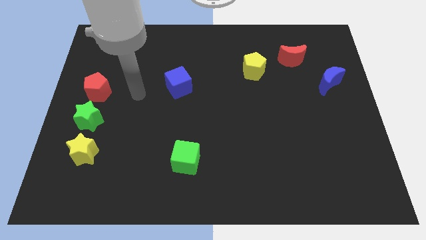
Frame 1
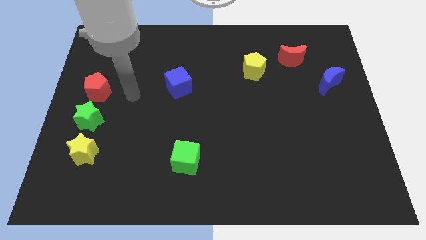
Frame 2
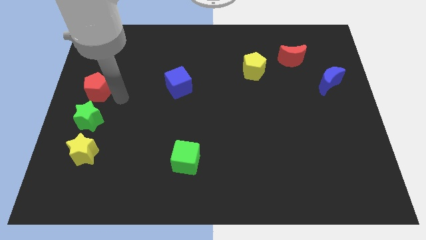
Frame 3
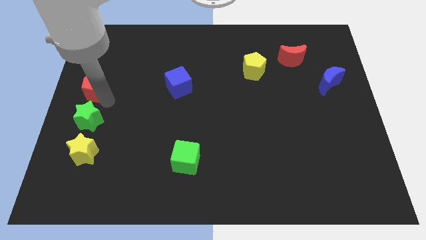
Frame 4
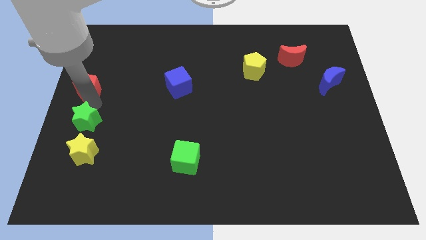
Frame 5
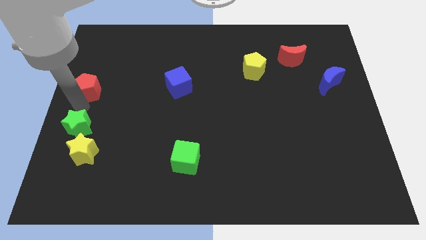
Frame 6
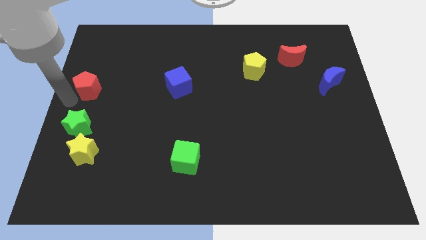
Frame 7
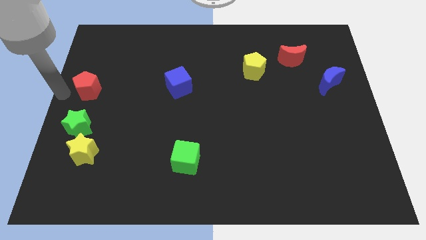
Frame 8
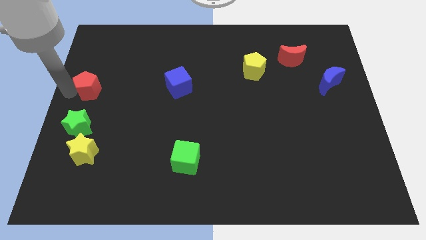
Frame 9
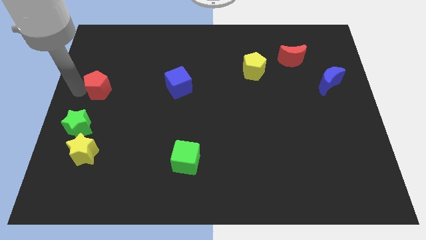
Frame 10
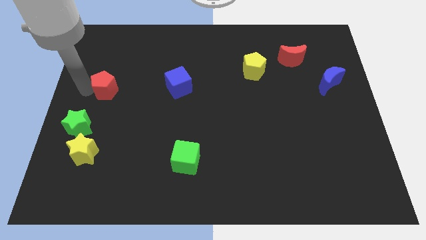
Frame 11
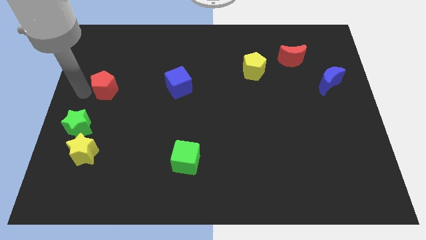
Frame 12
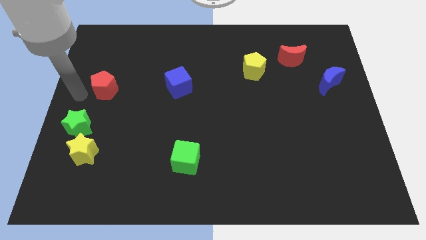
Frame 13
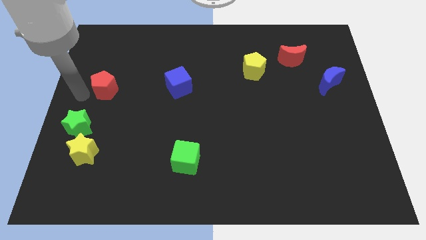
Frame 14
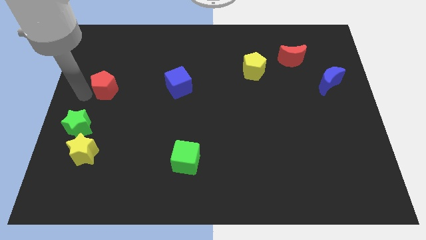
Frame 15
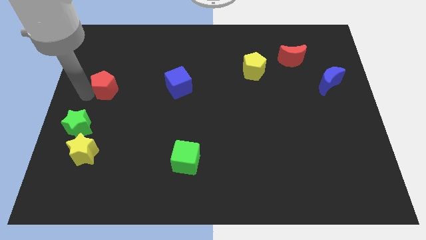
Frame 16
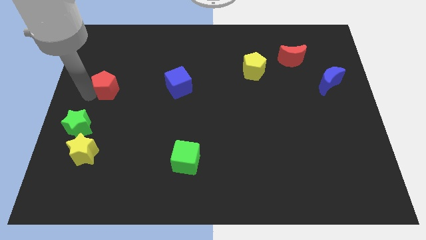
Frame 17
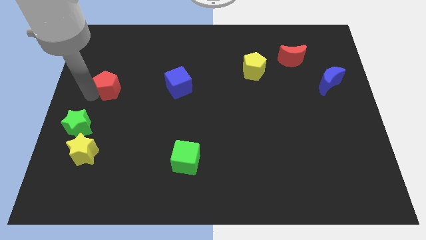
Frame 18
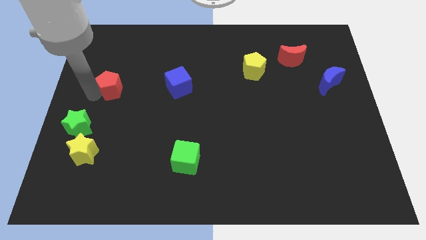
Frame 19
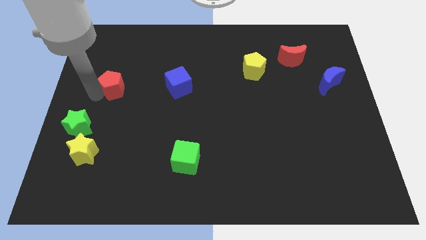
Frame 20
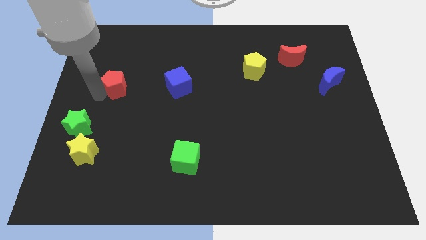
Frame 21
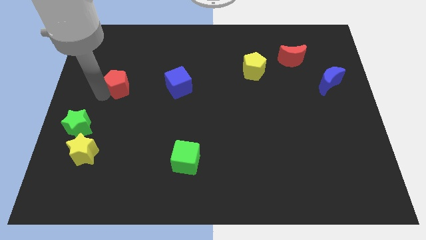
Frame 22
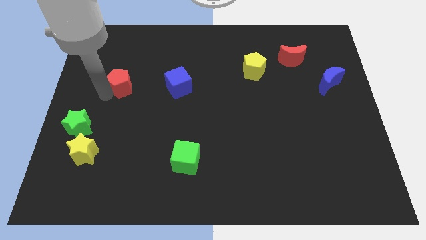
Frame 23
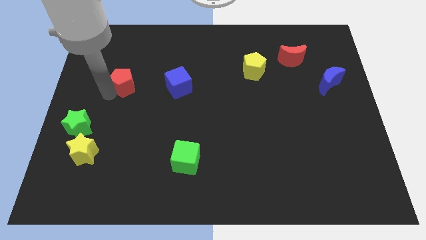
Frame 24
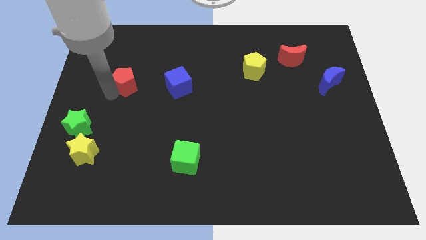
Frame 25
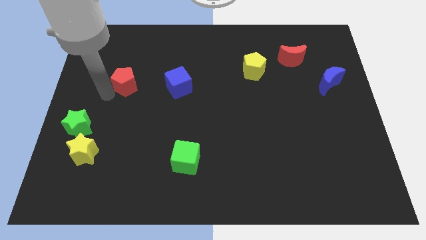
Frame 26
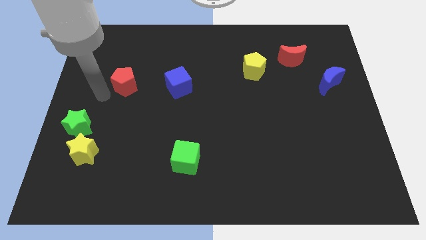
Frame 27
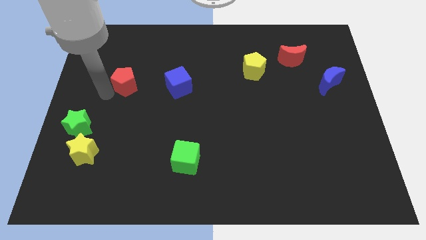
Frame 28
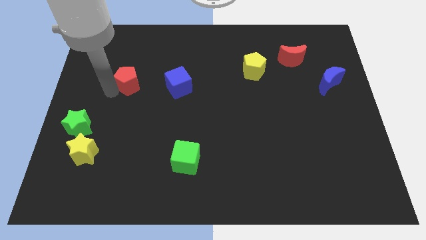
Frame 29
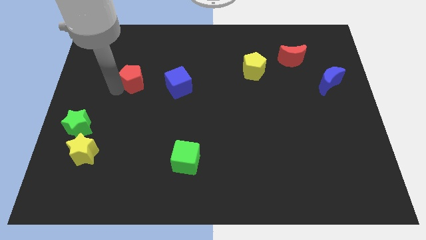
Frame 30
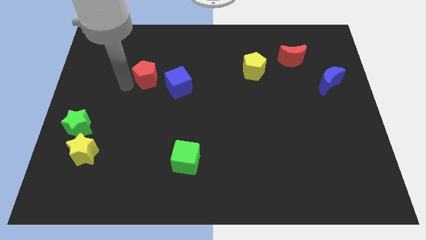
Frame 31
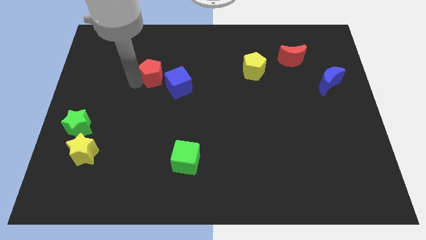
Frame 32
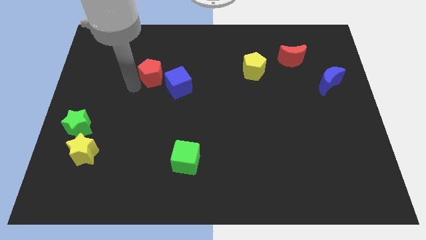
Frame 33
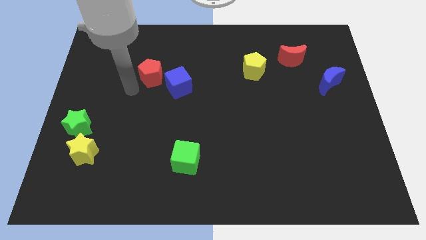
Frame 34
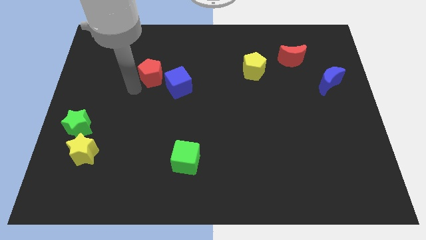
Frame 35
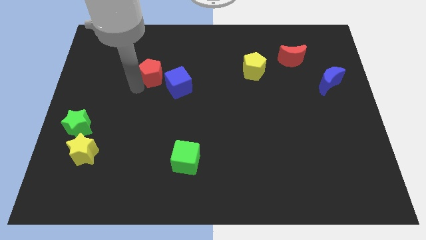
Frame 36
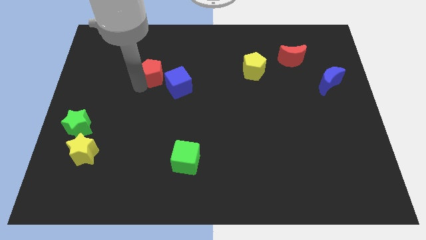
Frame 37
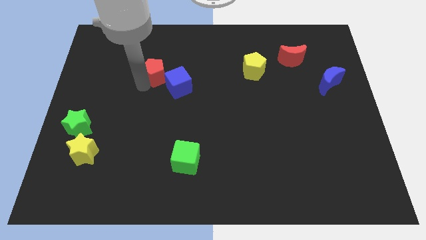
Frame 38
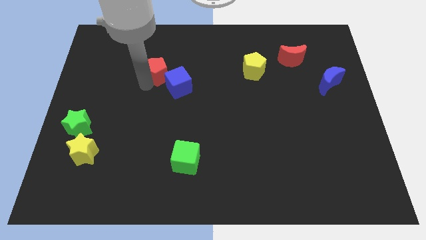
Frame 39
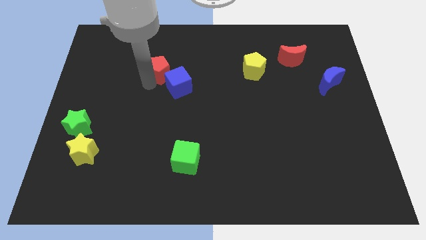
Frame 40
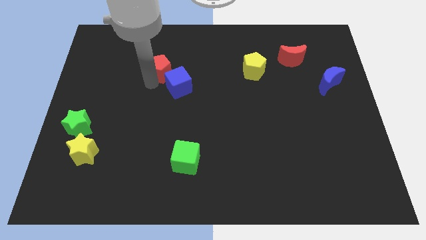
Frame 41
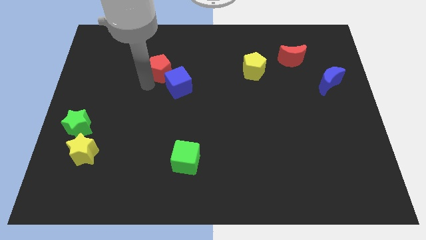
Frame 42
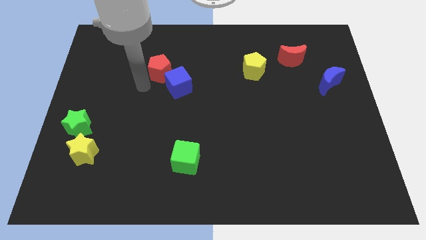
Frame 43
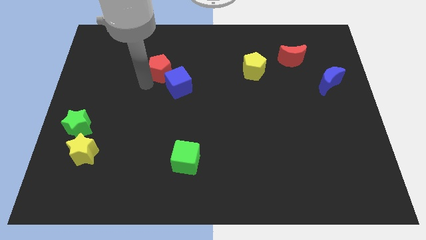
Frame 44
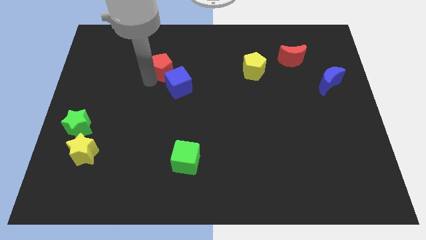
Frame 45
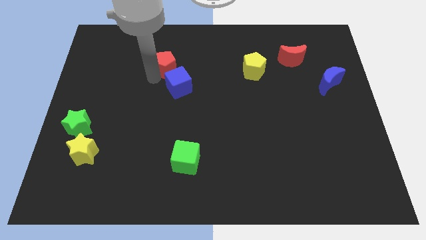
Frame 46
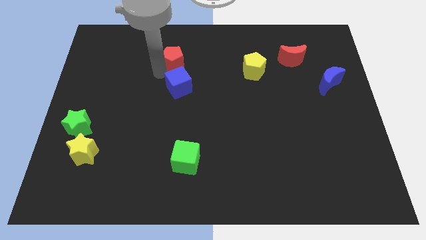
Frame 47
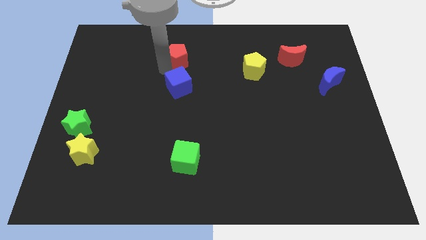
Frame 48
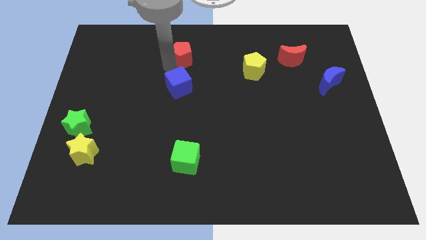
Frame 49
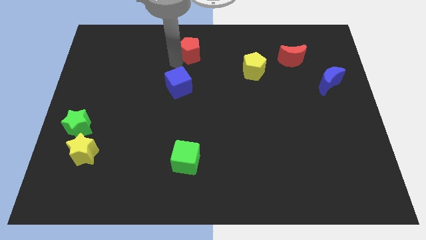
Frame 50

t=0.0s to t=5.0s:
slide the red pentagon to the towards your base

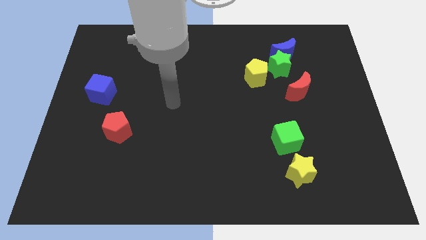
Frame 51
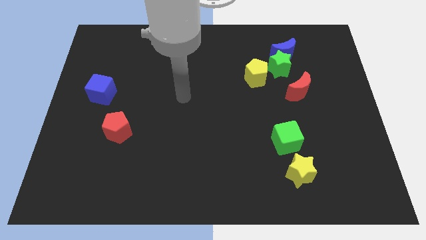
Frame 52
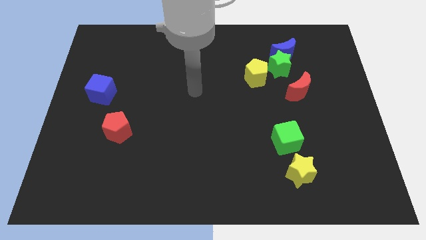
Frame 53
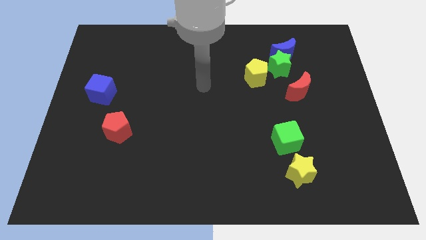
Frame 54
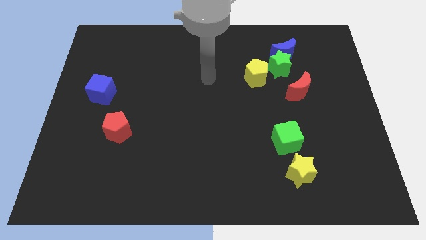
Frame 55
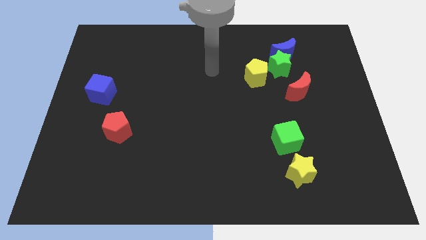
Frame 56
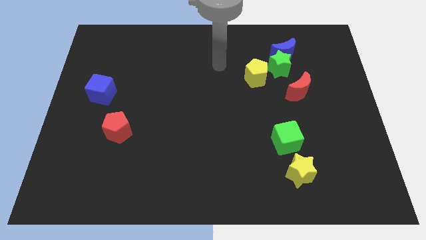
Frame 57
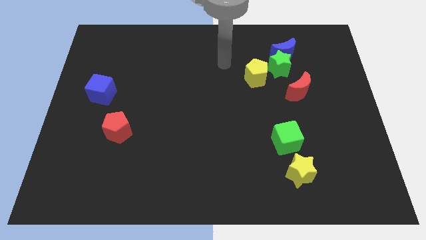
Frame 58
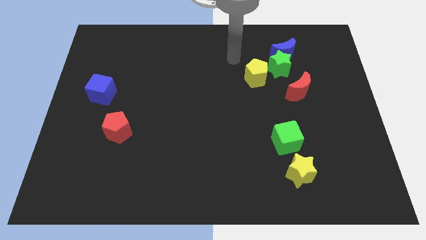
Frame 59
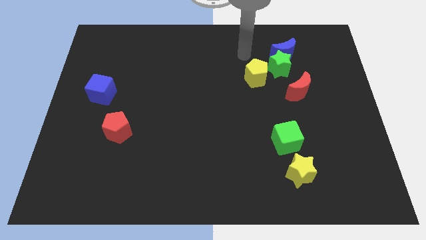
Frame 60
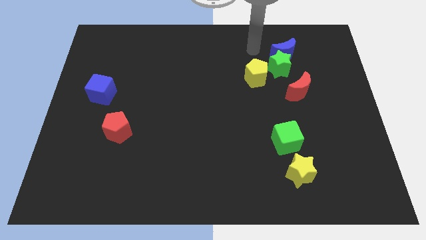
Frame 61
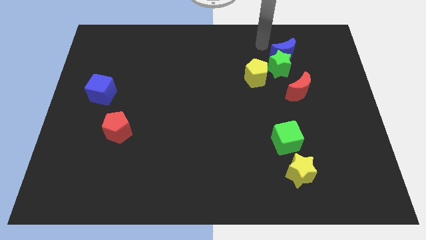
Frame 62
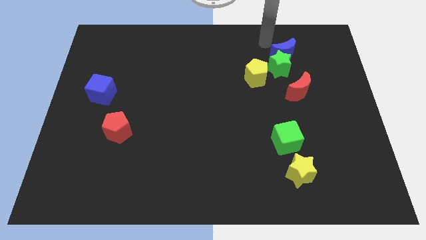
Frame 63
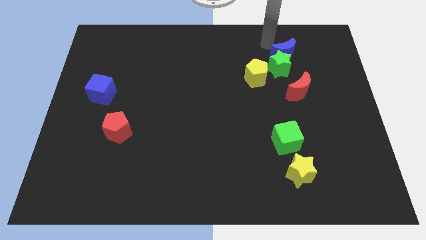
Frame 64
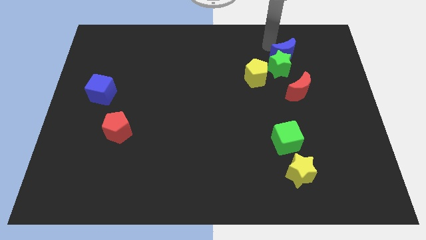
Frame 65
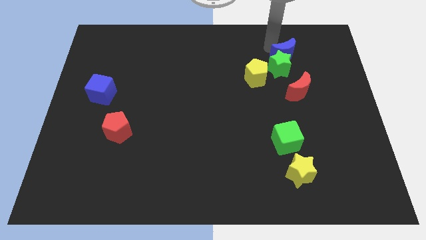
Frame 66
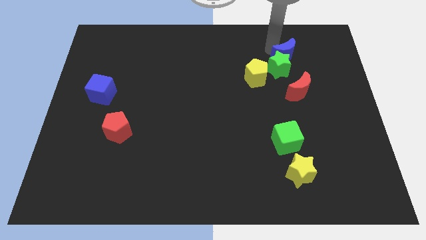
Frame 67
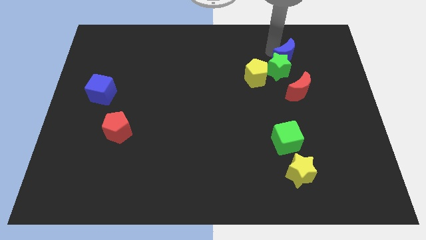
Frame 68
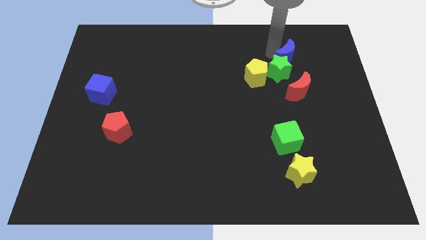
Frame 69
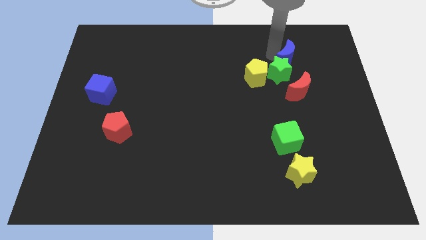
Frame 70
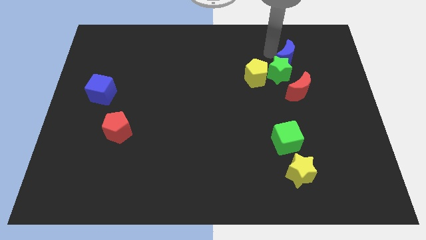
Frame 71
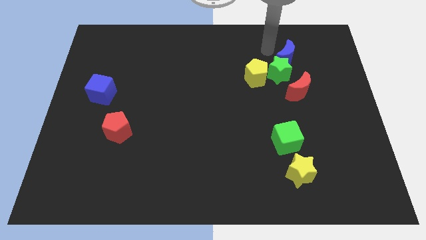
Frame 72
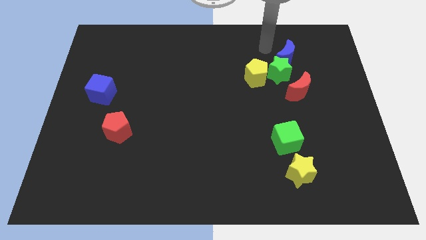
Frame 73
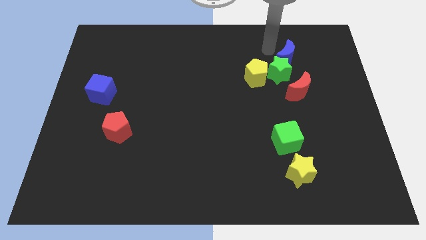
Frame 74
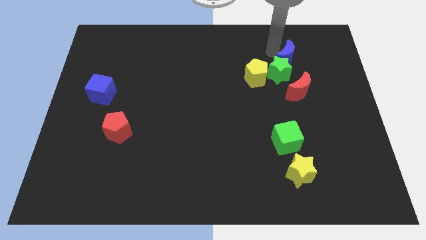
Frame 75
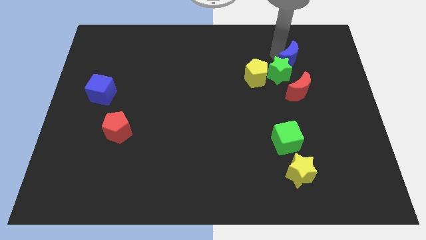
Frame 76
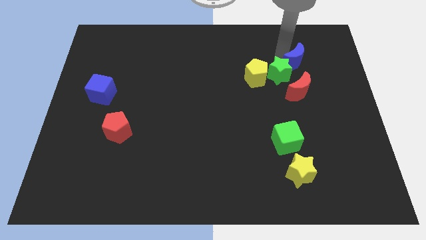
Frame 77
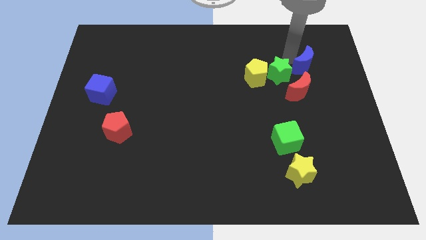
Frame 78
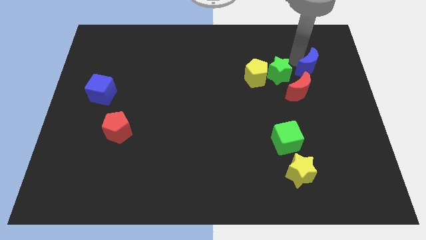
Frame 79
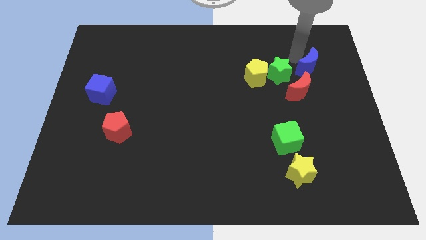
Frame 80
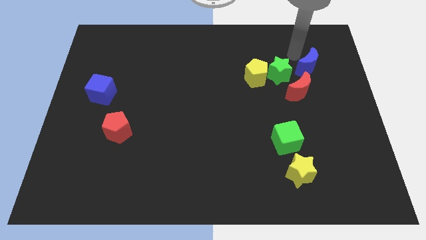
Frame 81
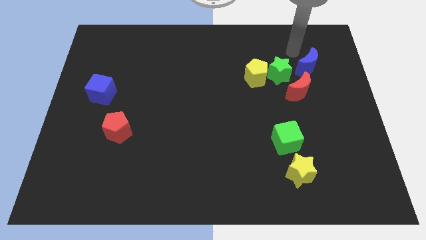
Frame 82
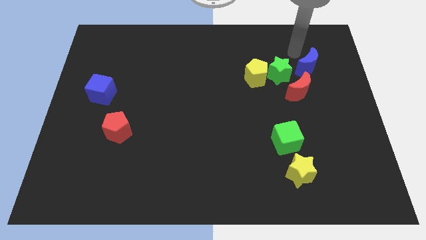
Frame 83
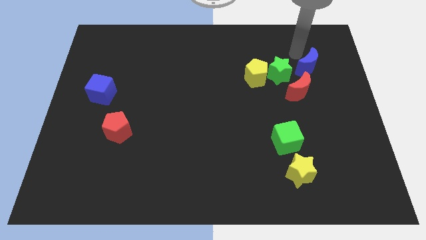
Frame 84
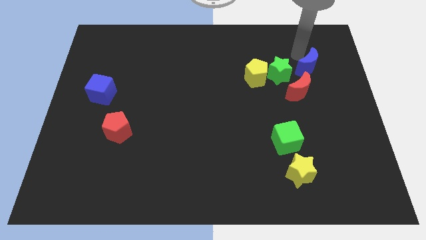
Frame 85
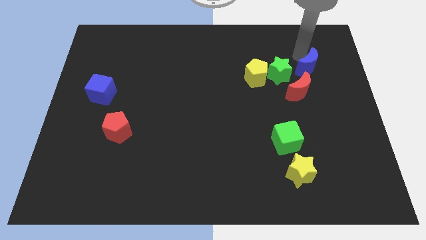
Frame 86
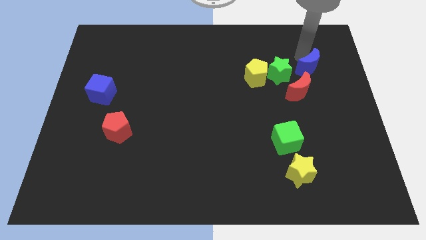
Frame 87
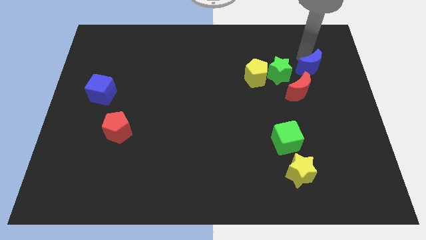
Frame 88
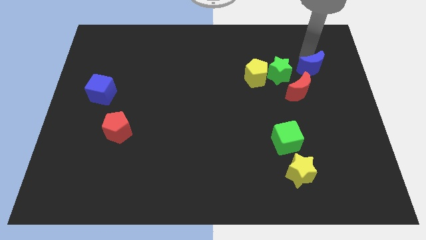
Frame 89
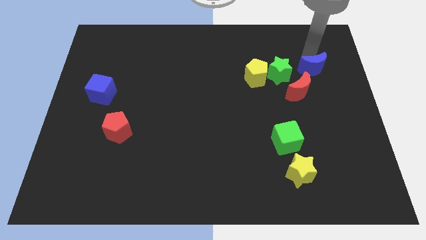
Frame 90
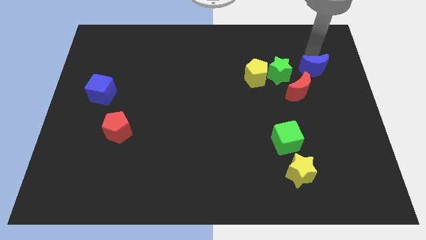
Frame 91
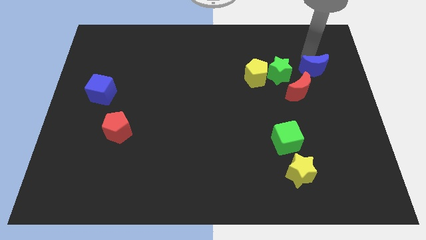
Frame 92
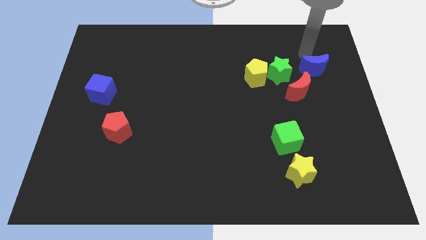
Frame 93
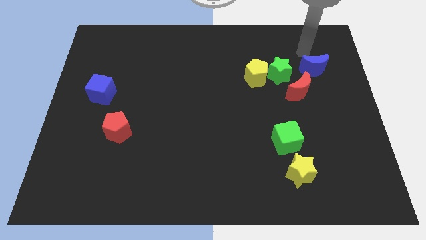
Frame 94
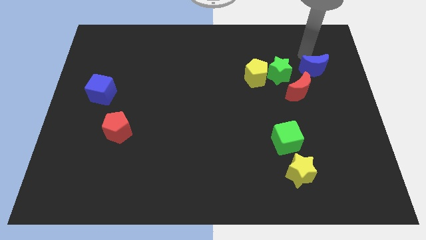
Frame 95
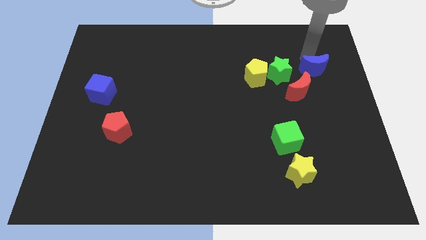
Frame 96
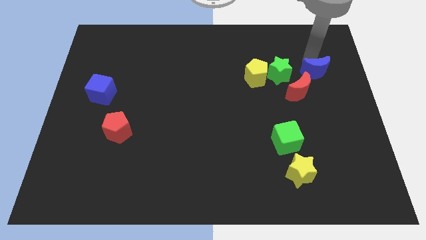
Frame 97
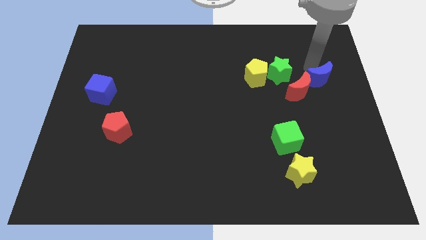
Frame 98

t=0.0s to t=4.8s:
push the blue moon to the center right
